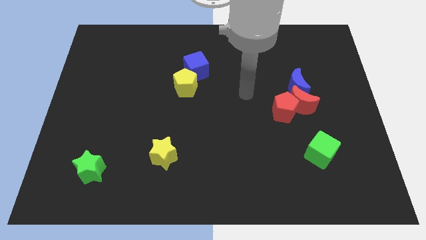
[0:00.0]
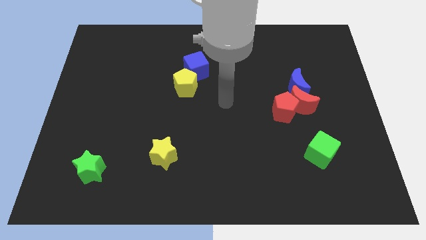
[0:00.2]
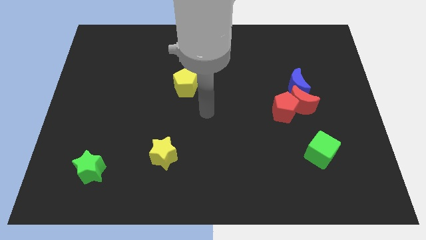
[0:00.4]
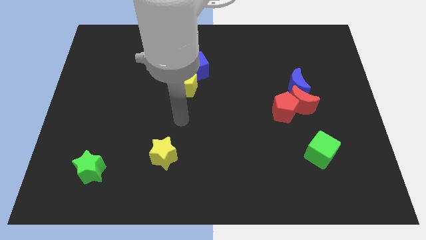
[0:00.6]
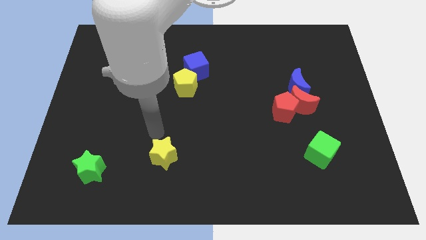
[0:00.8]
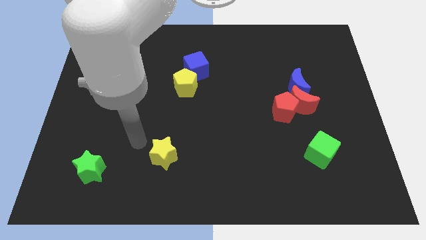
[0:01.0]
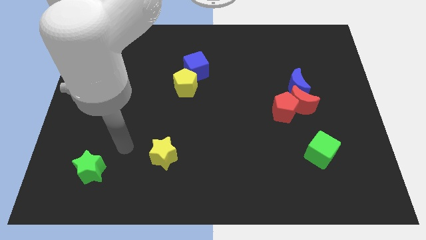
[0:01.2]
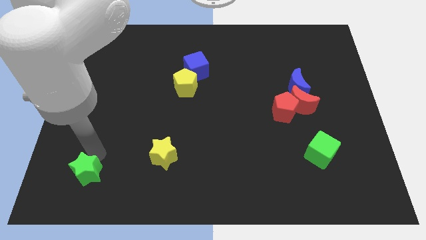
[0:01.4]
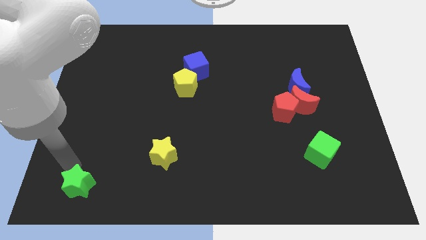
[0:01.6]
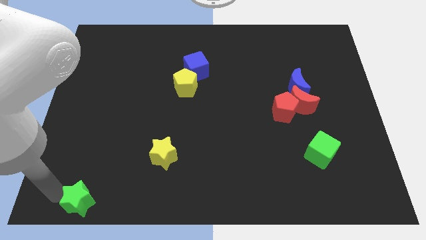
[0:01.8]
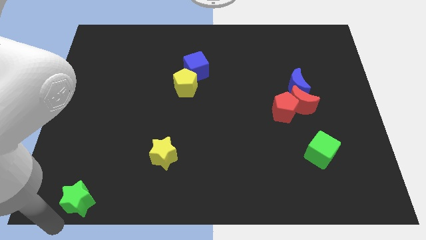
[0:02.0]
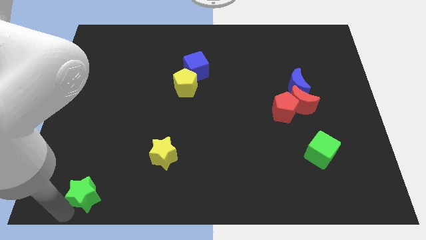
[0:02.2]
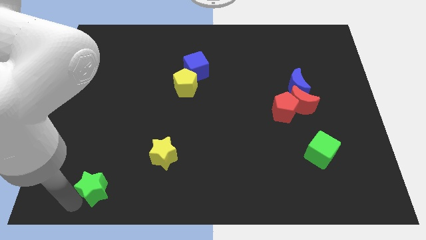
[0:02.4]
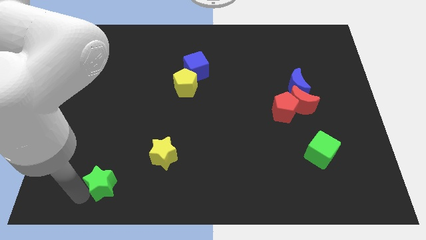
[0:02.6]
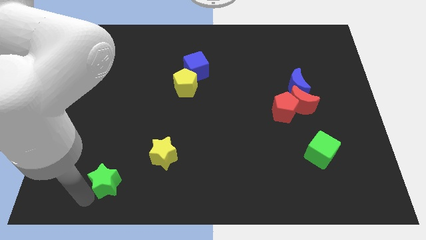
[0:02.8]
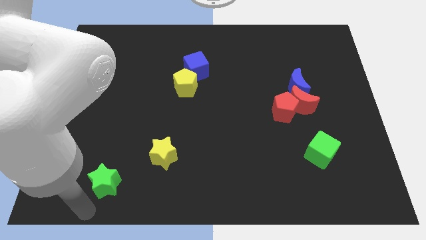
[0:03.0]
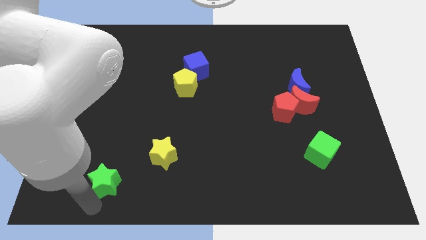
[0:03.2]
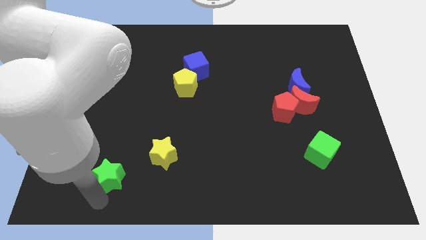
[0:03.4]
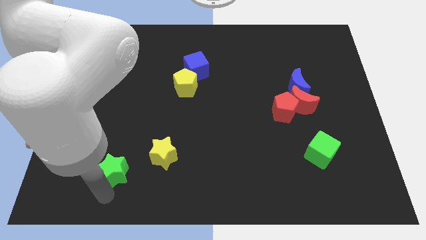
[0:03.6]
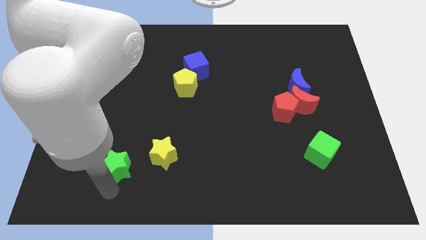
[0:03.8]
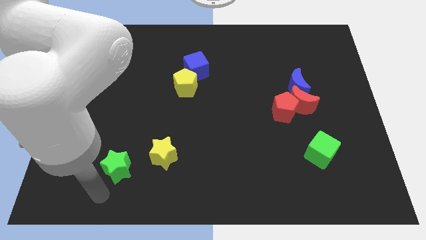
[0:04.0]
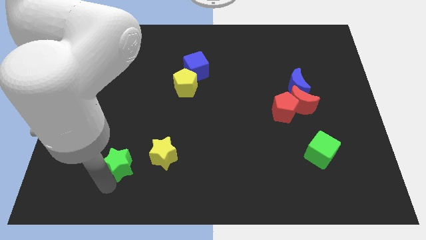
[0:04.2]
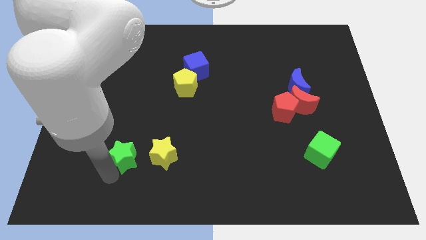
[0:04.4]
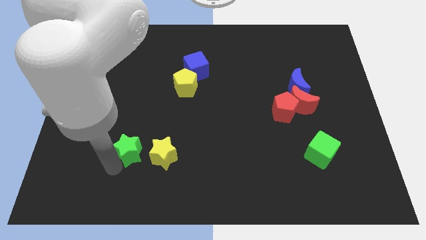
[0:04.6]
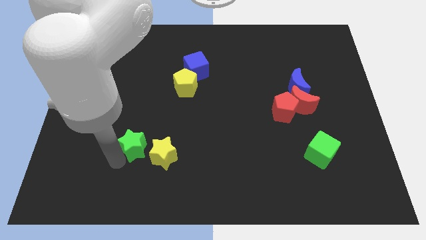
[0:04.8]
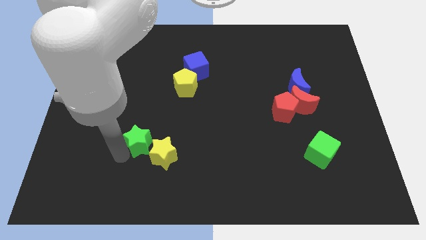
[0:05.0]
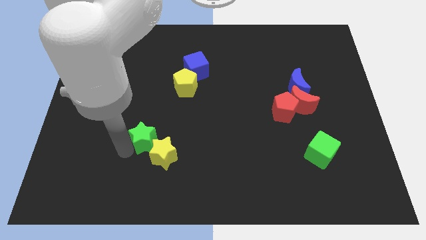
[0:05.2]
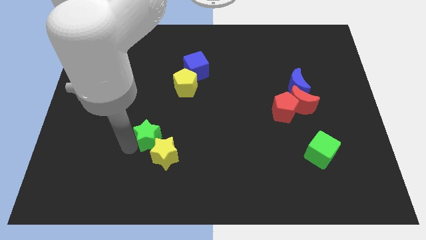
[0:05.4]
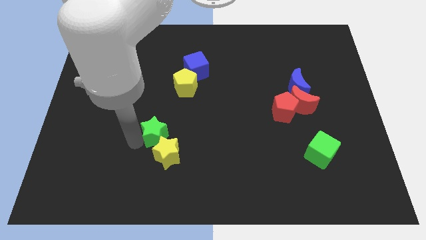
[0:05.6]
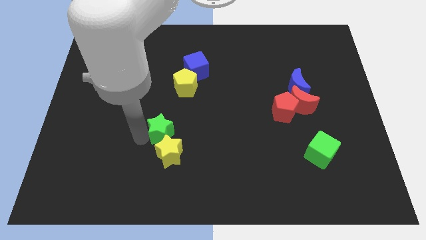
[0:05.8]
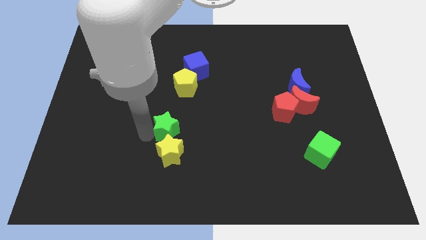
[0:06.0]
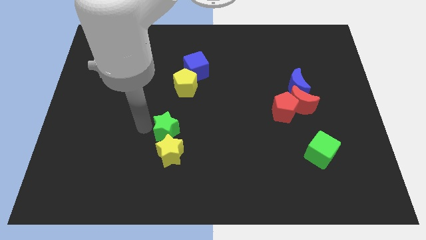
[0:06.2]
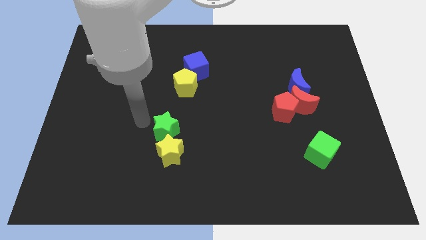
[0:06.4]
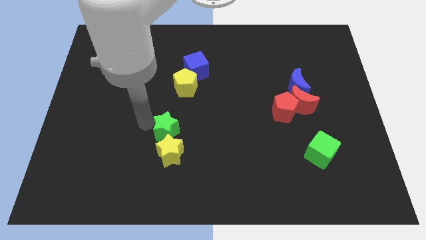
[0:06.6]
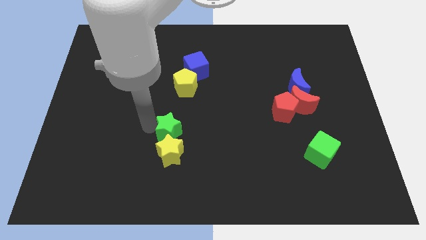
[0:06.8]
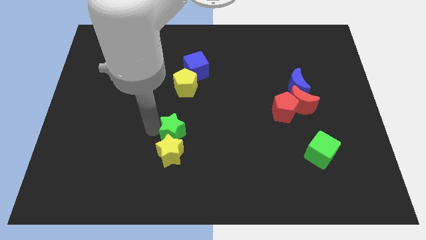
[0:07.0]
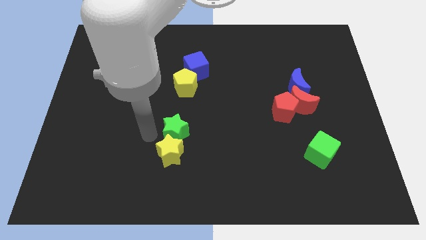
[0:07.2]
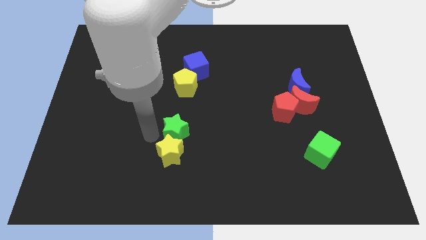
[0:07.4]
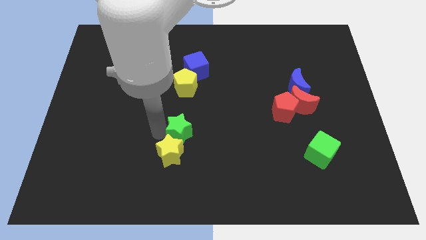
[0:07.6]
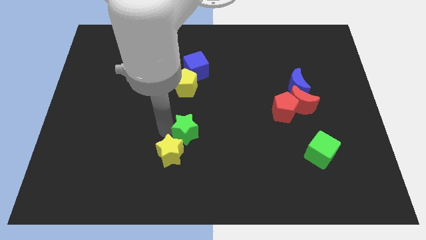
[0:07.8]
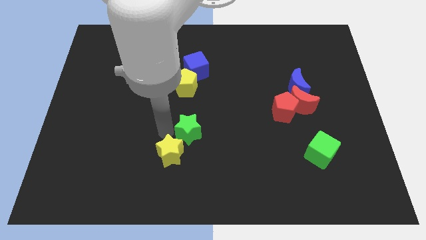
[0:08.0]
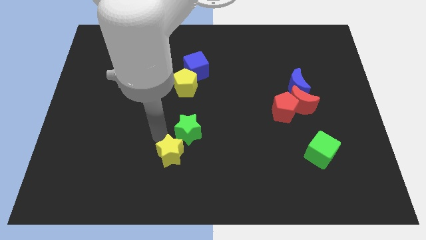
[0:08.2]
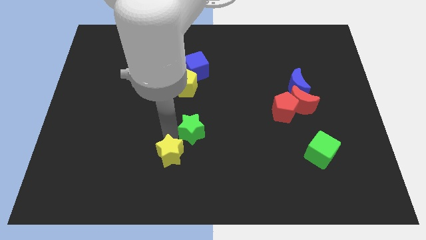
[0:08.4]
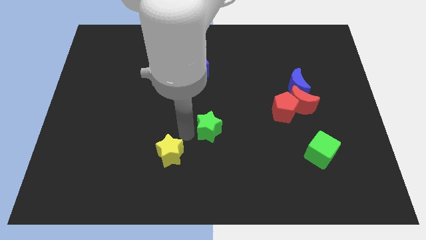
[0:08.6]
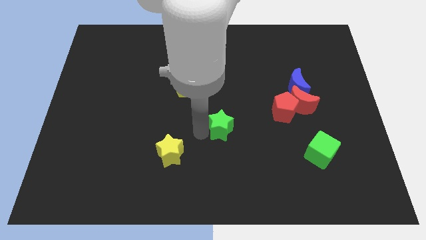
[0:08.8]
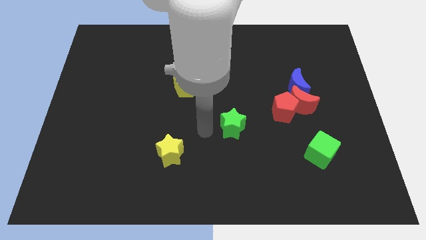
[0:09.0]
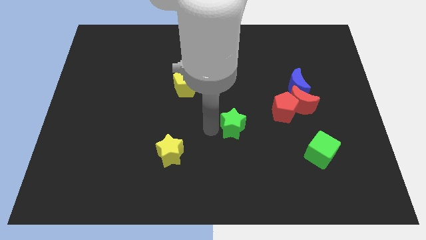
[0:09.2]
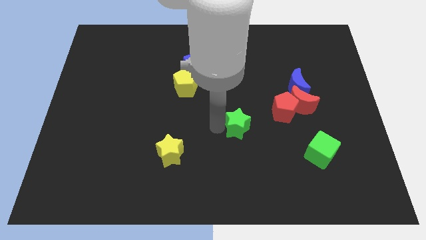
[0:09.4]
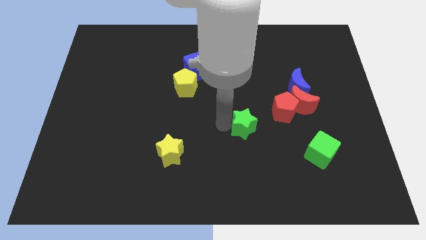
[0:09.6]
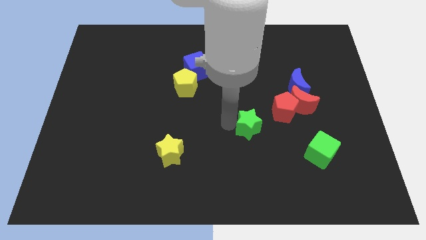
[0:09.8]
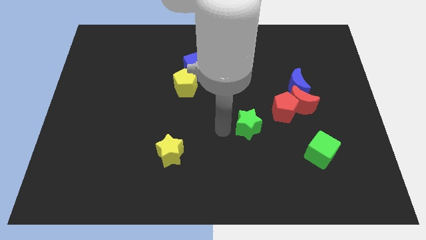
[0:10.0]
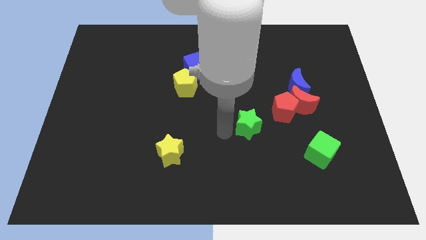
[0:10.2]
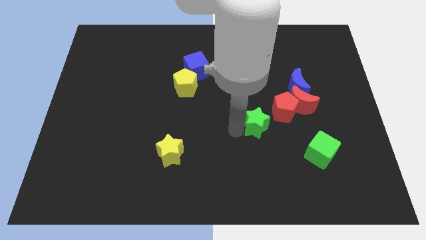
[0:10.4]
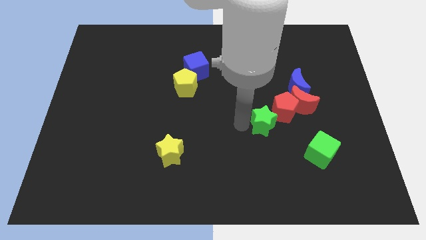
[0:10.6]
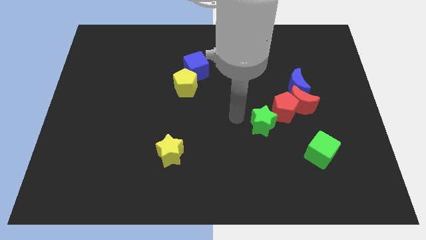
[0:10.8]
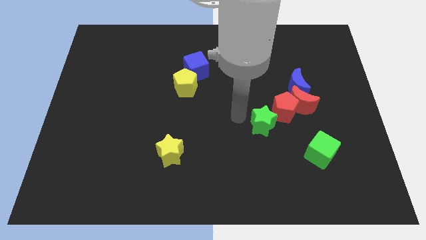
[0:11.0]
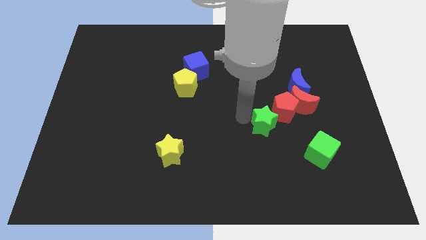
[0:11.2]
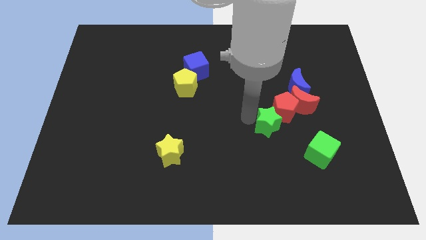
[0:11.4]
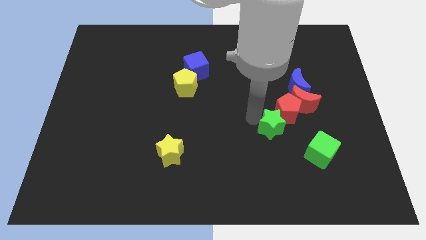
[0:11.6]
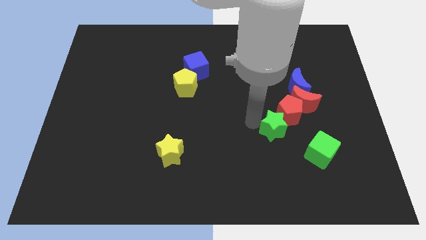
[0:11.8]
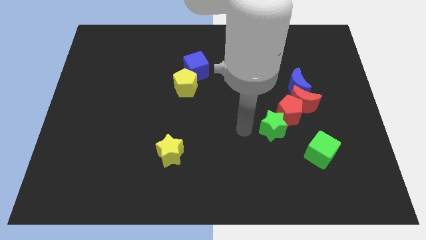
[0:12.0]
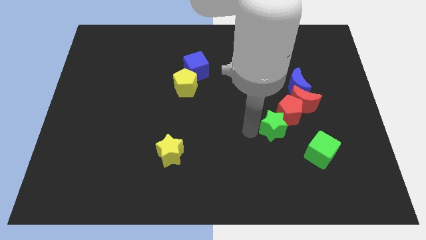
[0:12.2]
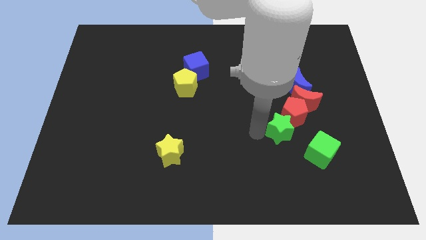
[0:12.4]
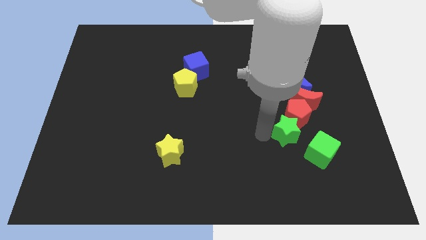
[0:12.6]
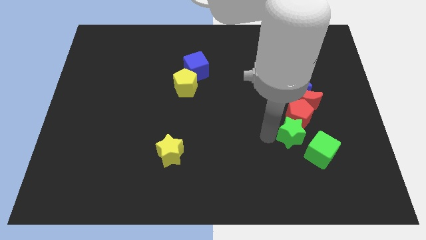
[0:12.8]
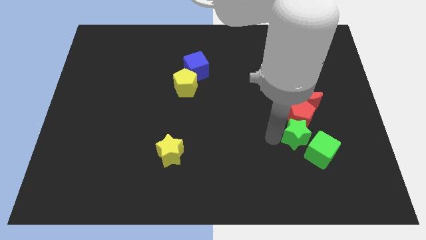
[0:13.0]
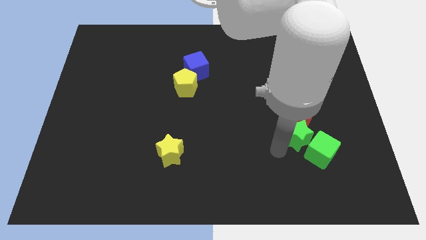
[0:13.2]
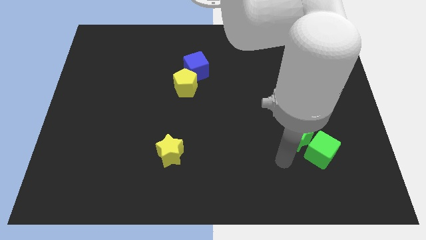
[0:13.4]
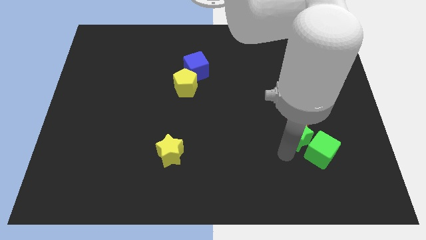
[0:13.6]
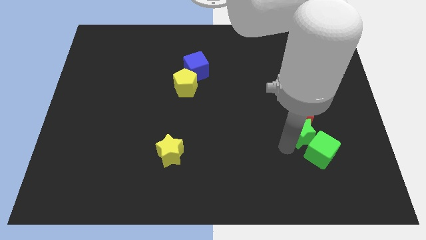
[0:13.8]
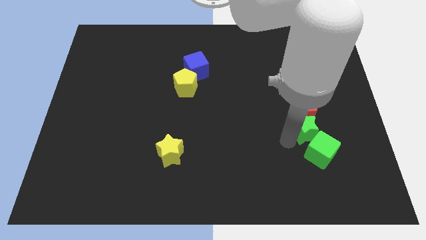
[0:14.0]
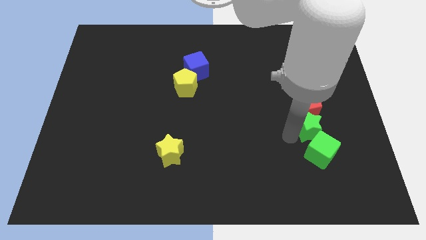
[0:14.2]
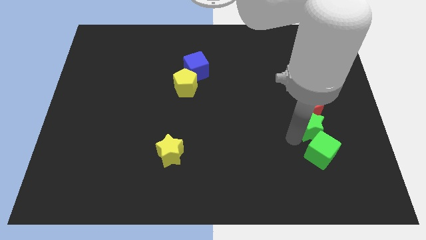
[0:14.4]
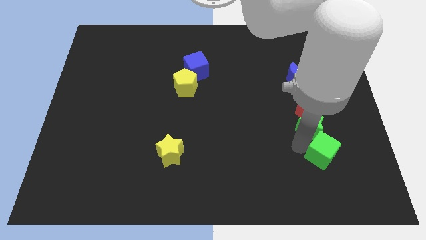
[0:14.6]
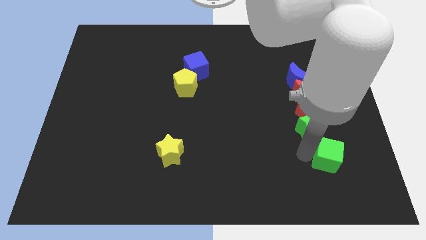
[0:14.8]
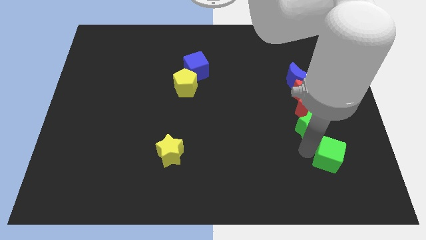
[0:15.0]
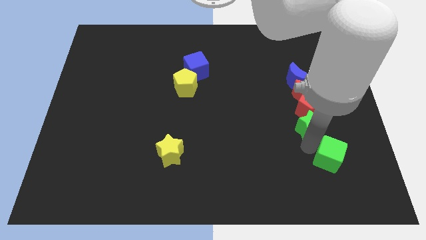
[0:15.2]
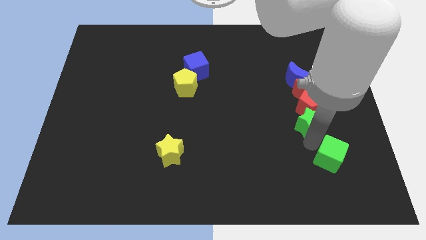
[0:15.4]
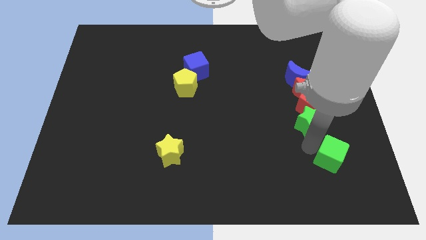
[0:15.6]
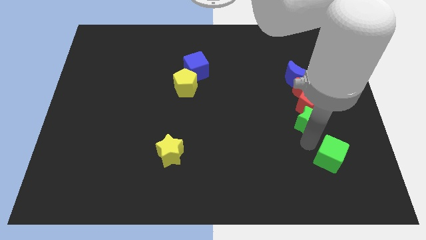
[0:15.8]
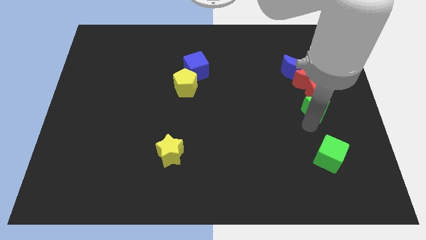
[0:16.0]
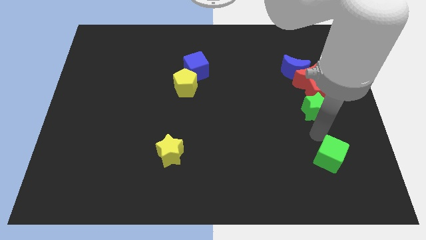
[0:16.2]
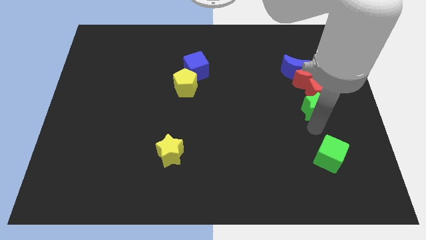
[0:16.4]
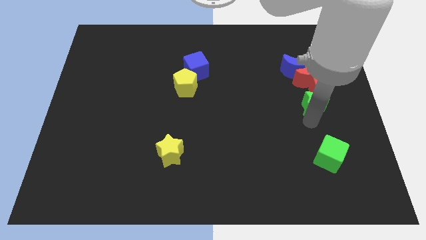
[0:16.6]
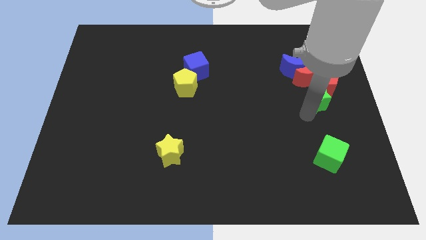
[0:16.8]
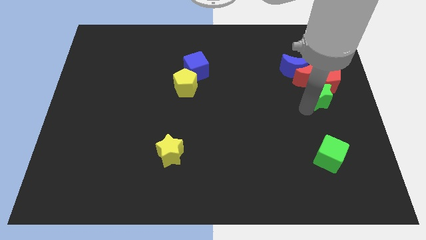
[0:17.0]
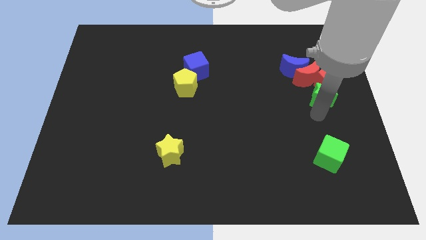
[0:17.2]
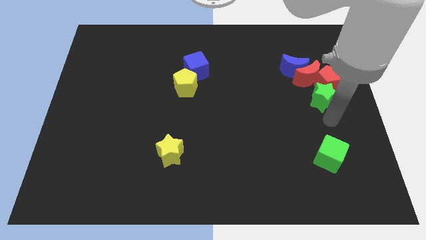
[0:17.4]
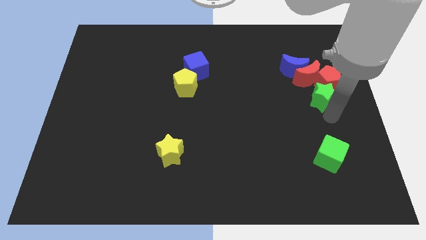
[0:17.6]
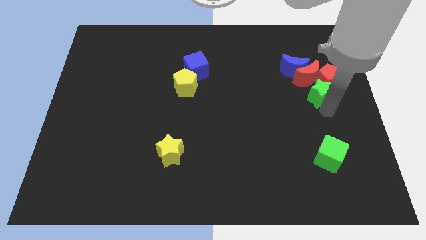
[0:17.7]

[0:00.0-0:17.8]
push the green star next to the red moon
